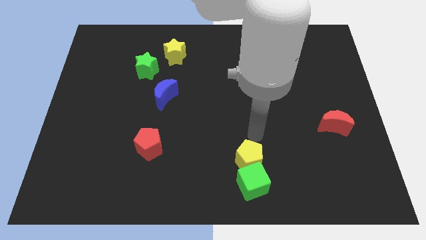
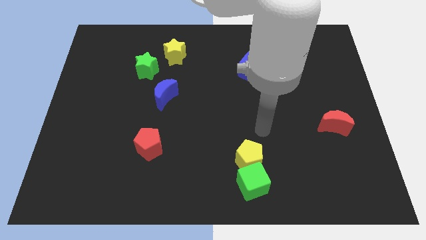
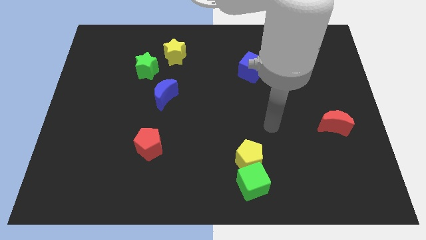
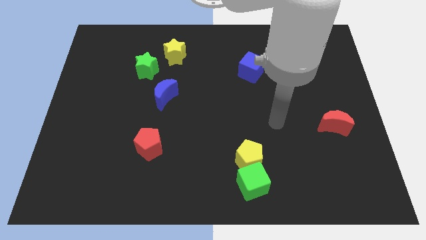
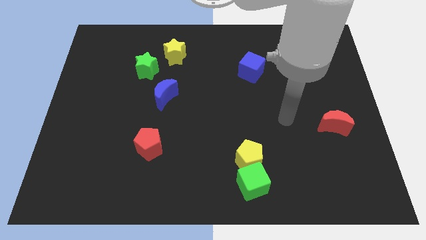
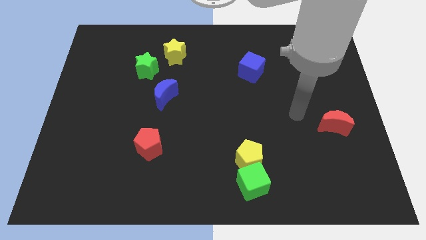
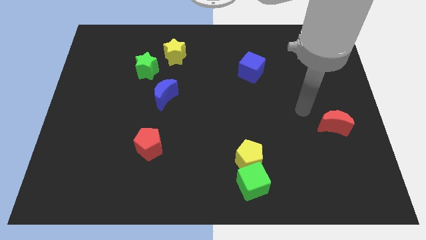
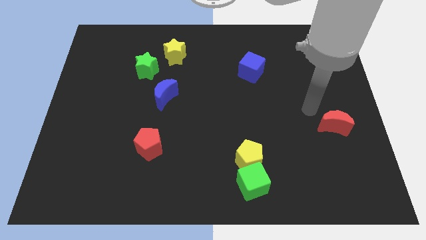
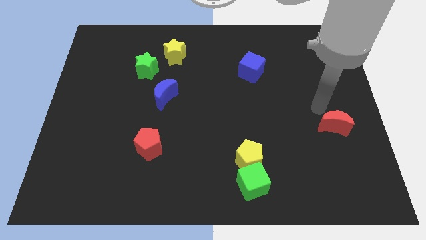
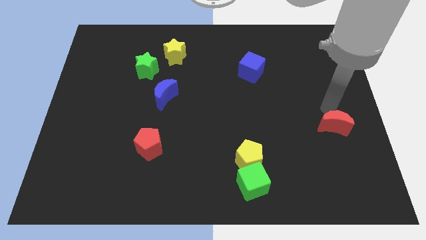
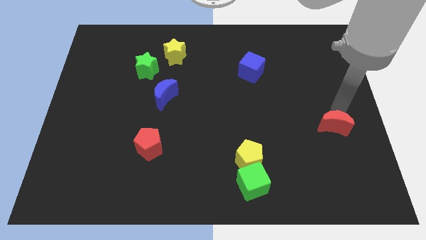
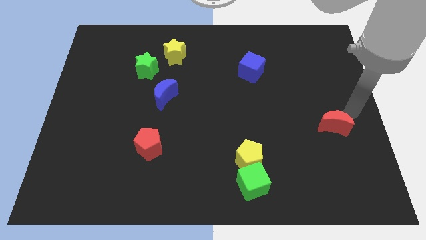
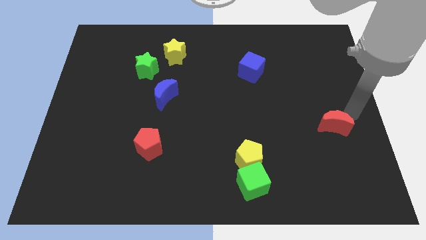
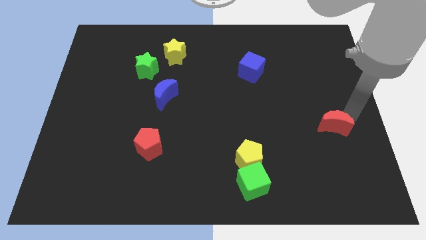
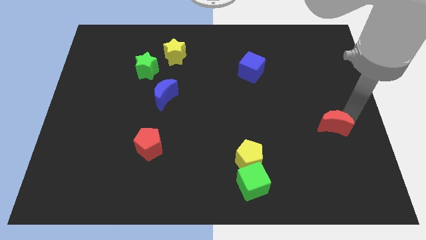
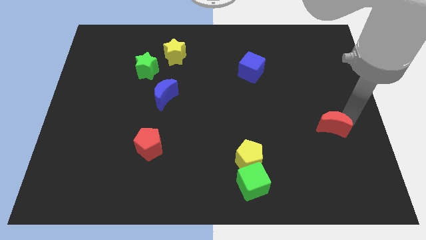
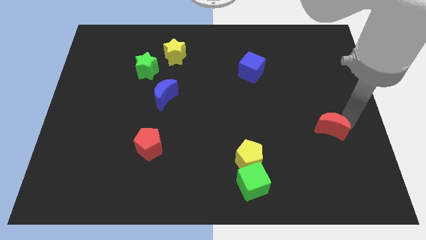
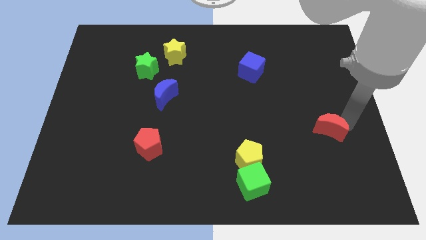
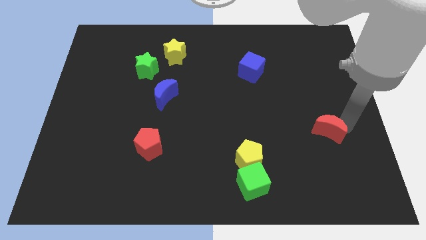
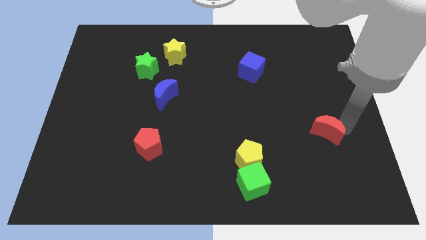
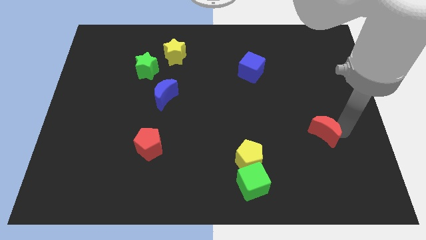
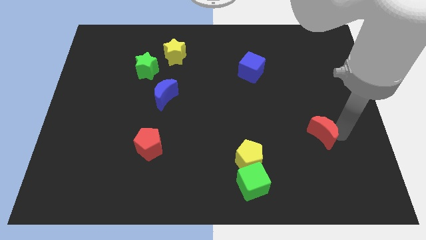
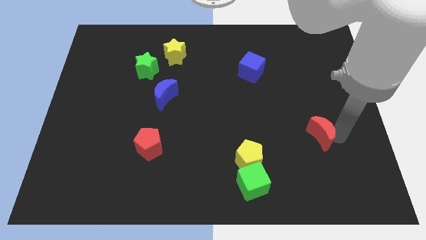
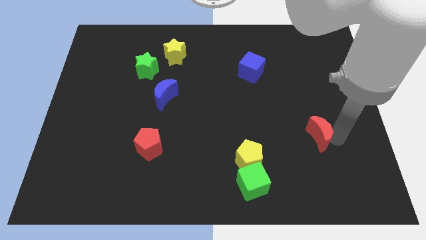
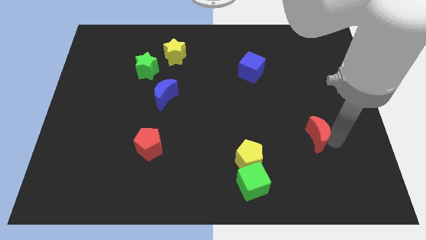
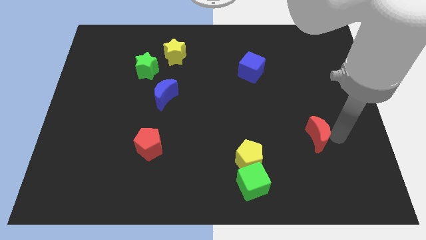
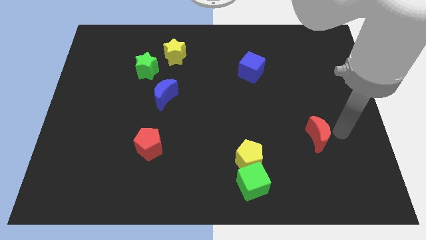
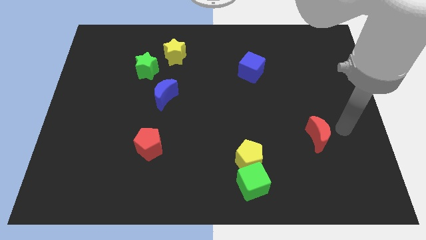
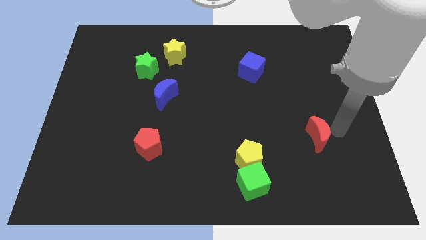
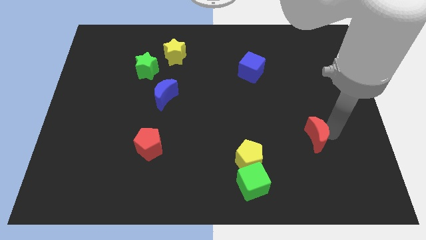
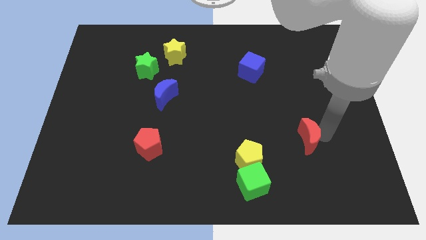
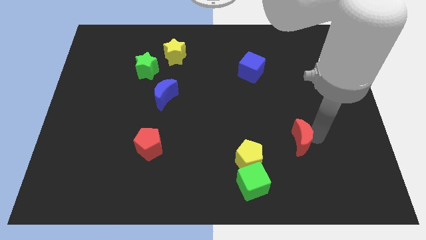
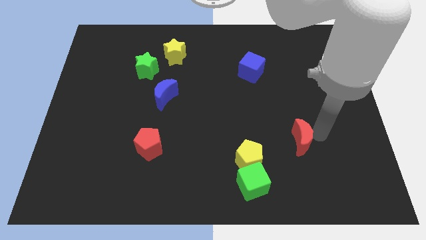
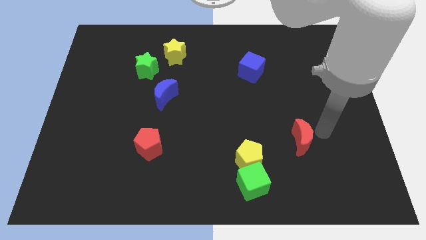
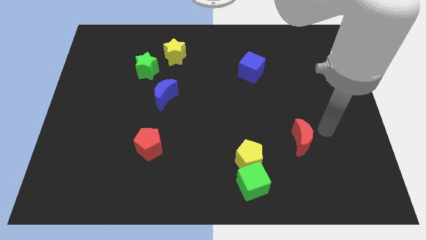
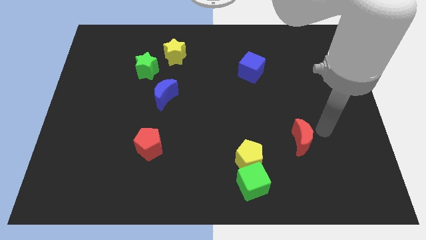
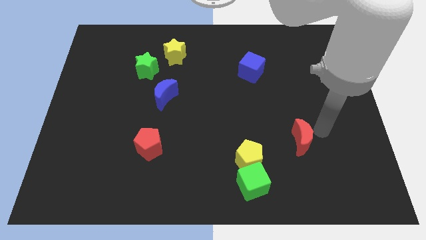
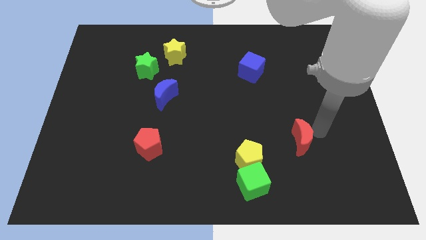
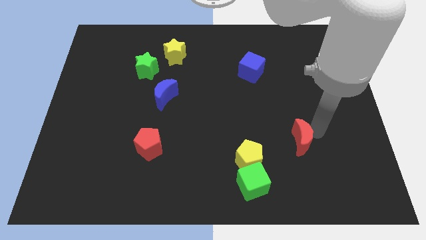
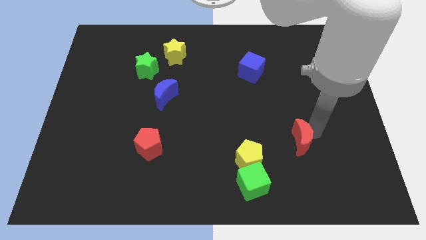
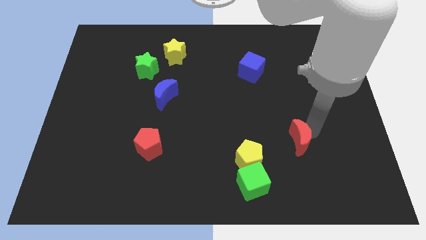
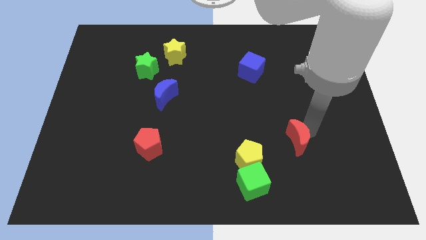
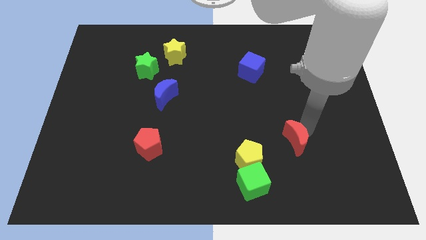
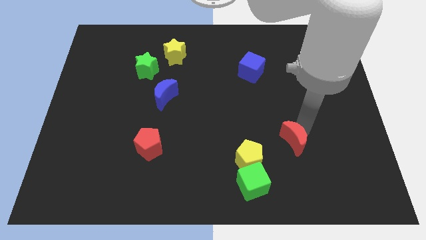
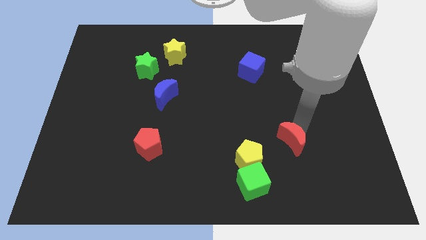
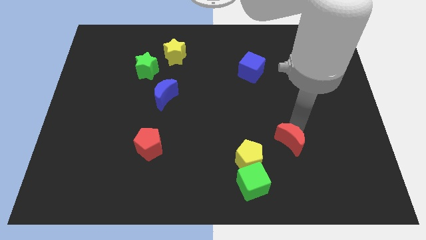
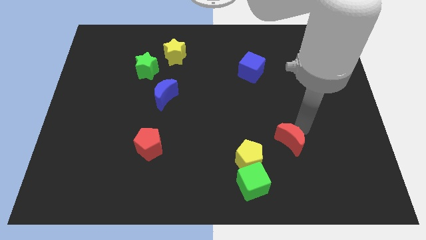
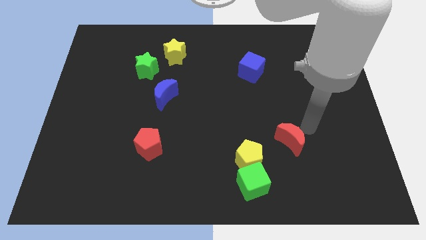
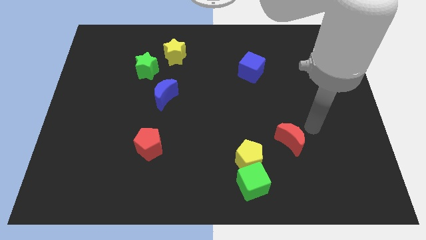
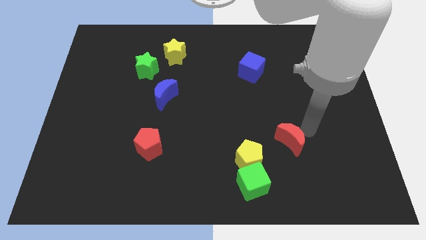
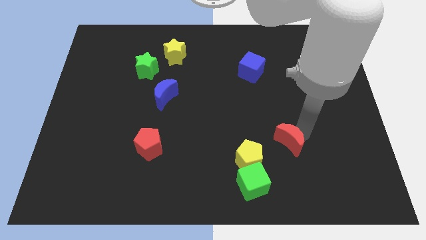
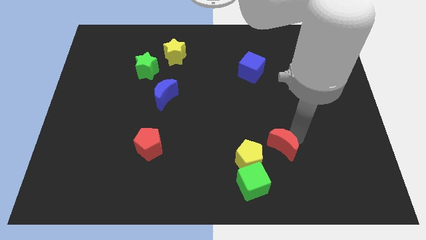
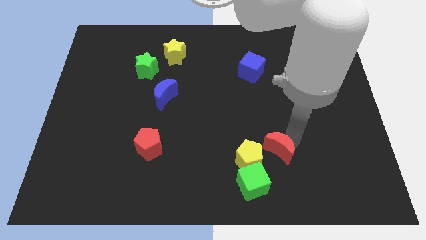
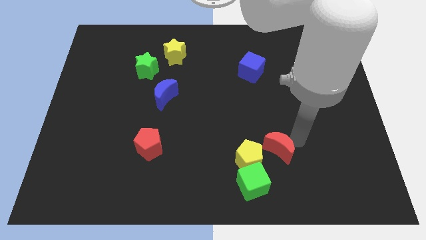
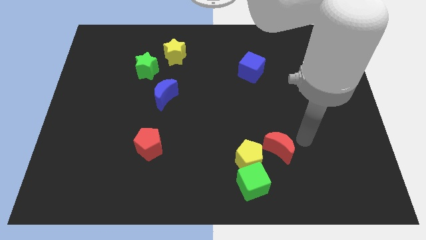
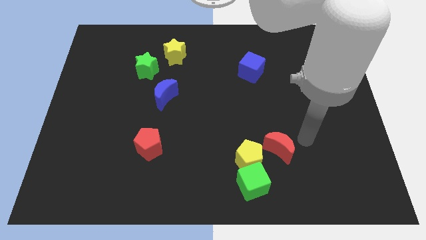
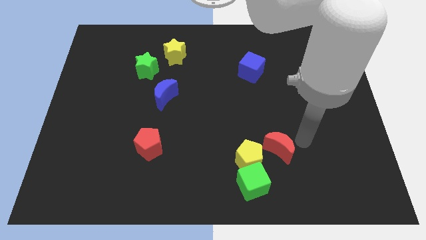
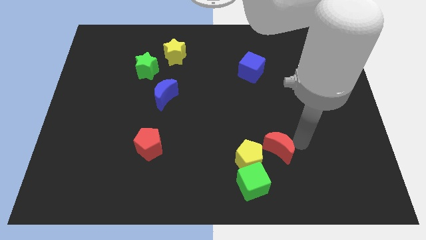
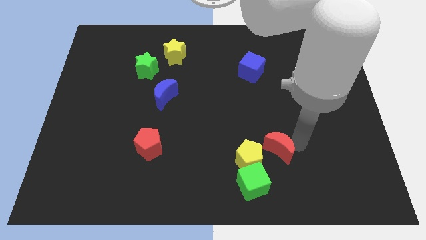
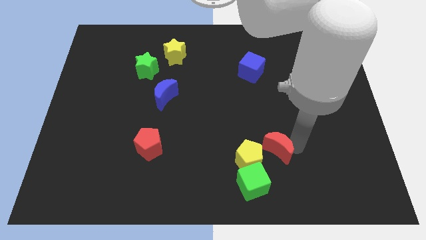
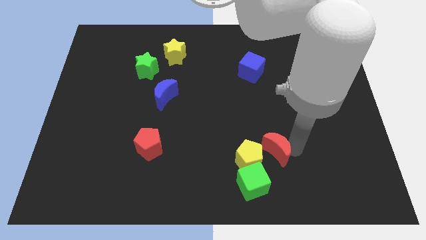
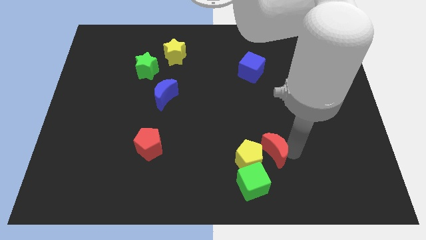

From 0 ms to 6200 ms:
move the red moon close to the yellow pentagon

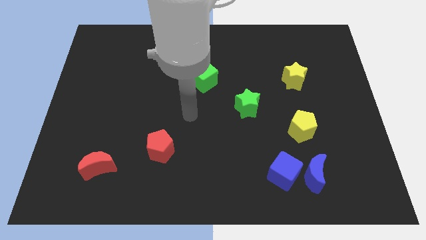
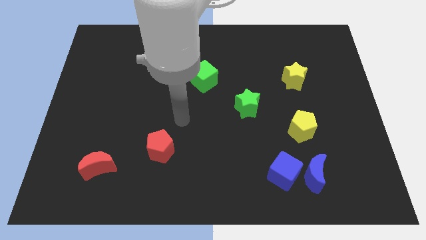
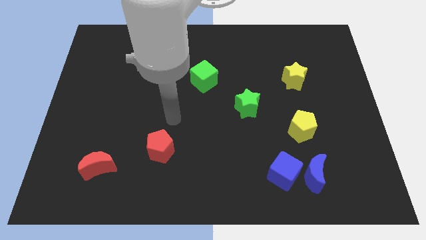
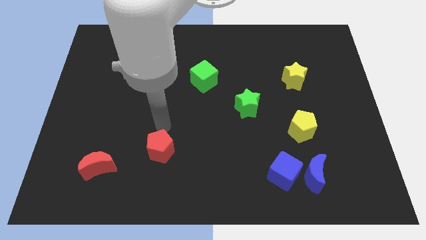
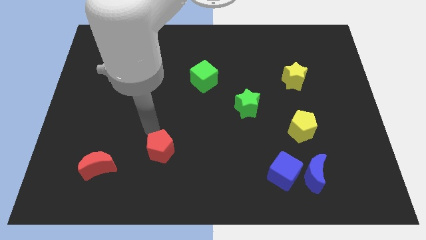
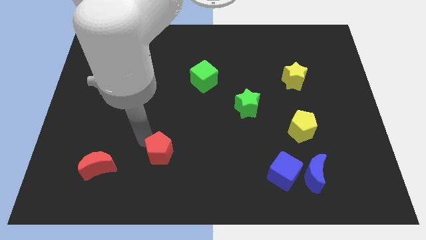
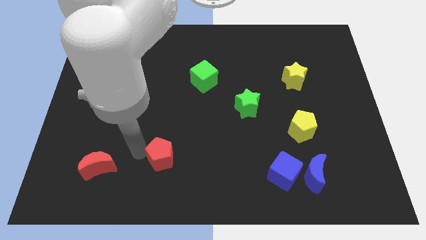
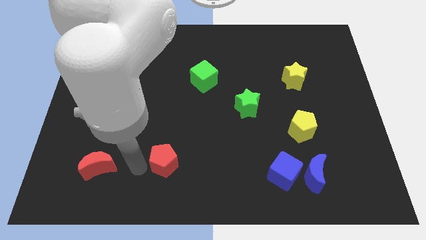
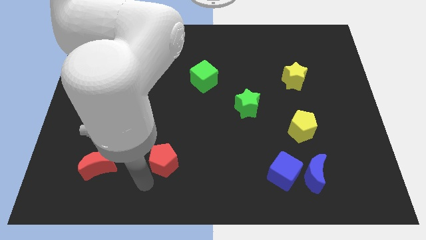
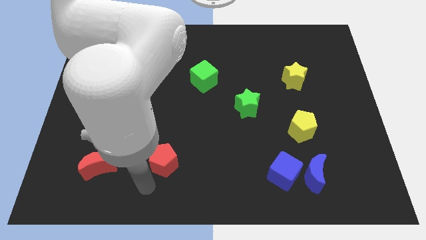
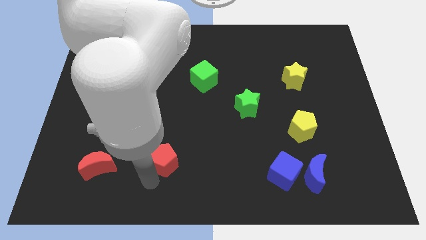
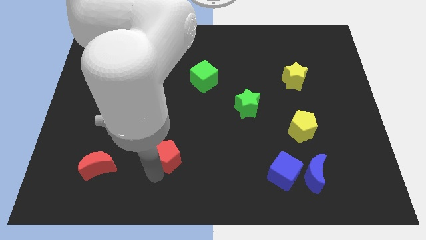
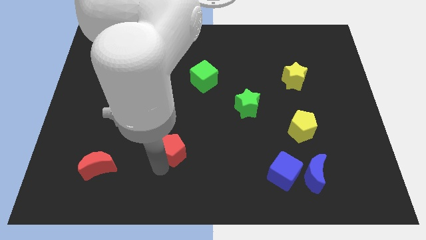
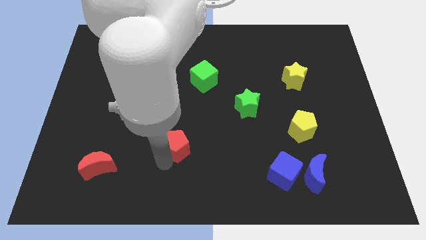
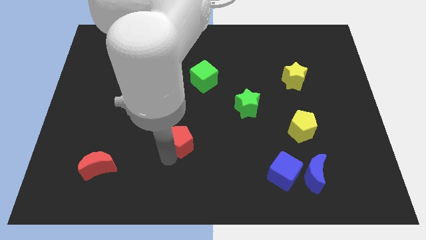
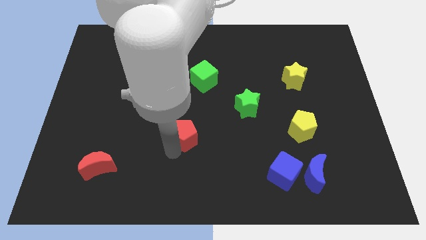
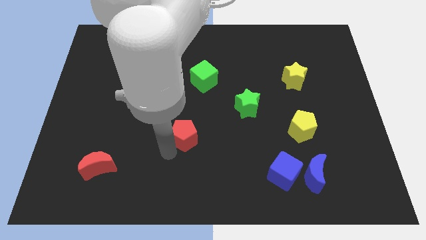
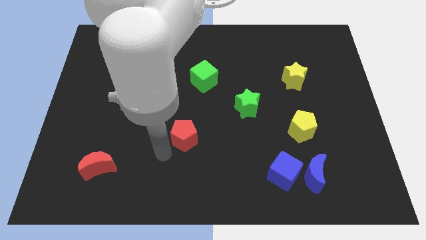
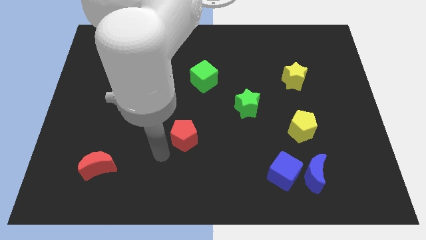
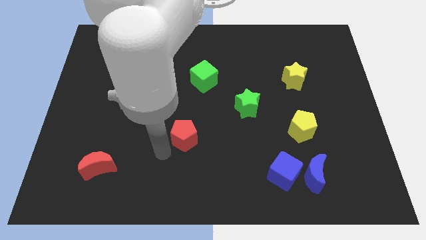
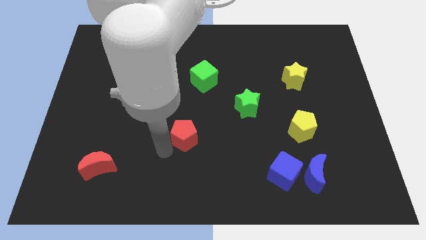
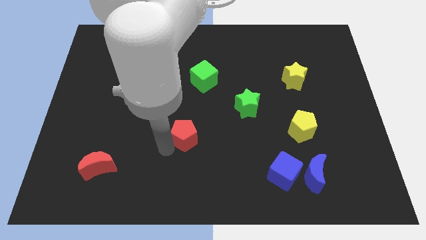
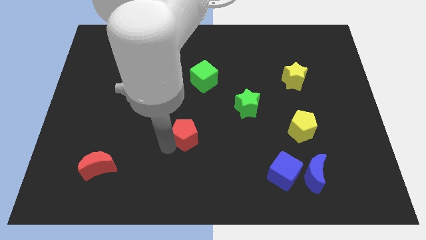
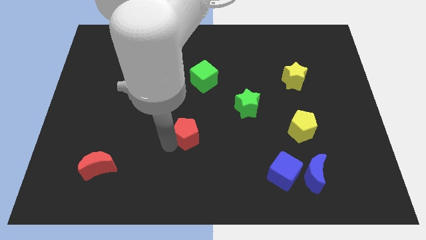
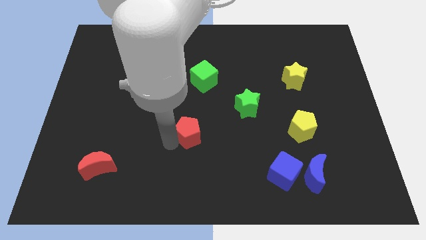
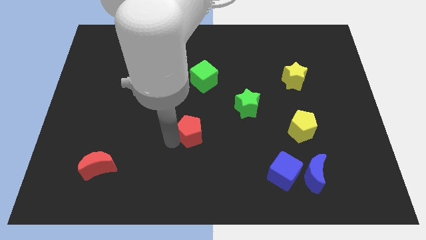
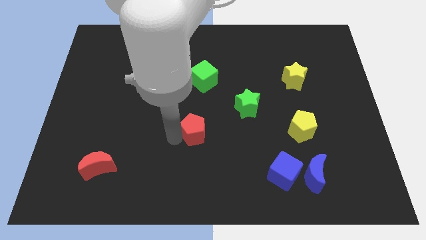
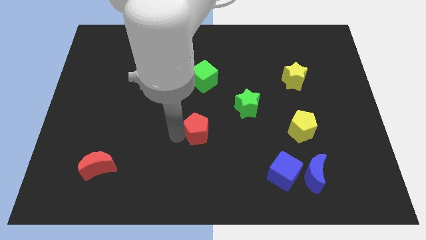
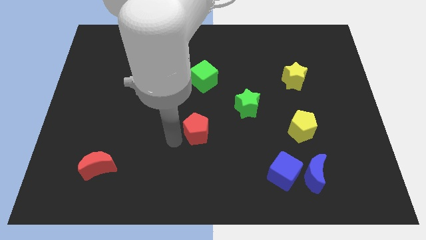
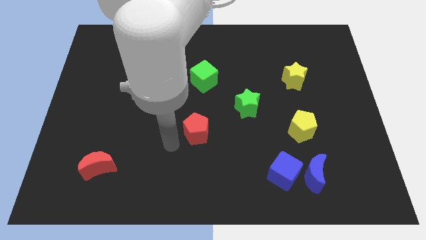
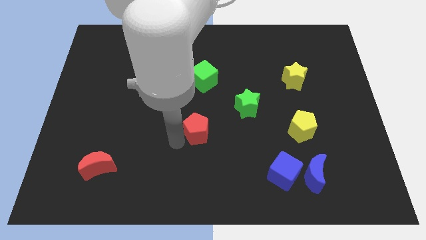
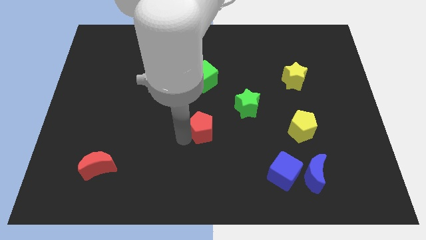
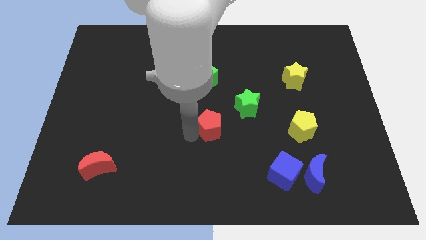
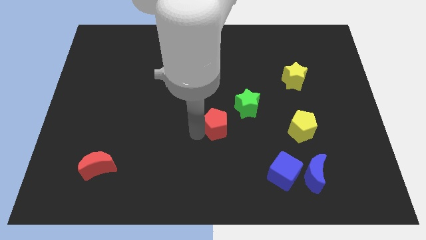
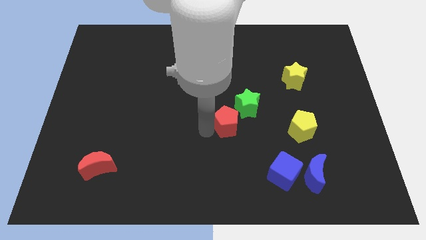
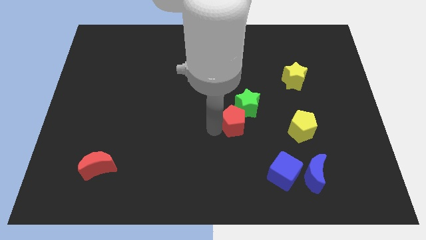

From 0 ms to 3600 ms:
push the red pentagon towards the green star
